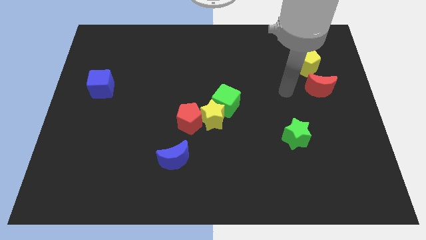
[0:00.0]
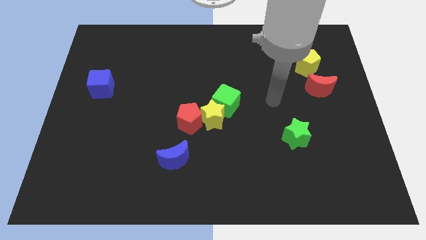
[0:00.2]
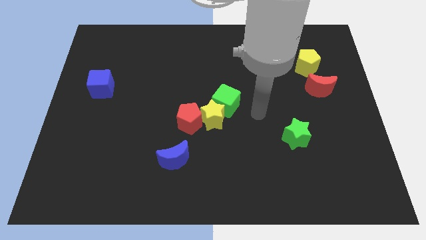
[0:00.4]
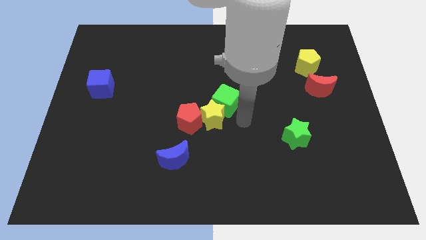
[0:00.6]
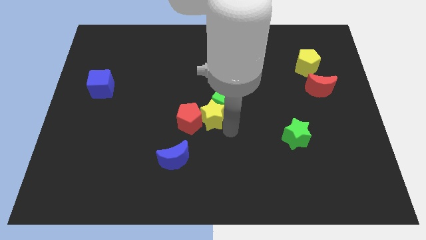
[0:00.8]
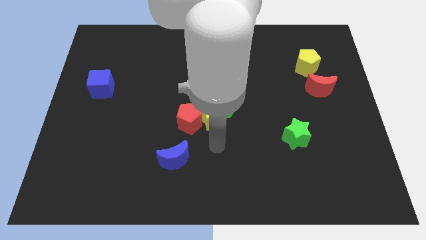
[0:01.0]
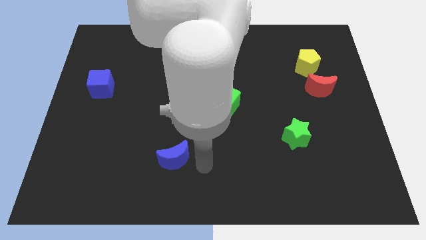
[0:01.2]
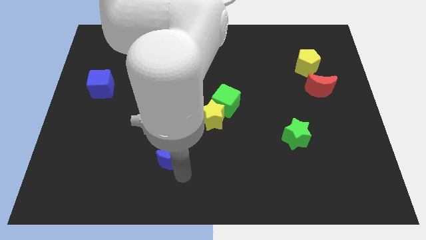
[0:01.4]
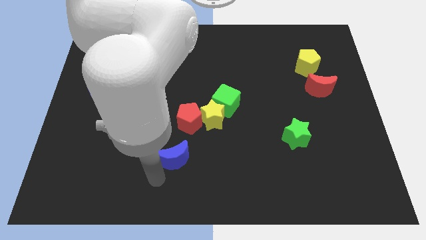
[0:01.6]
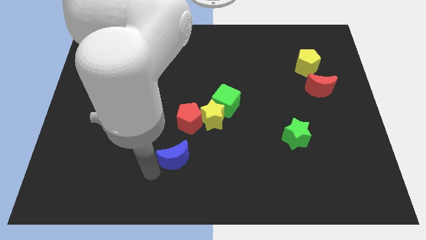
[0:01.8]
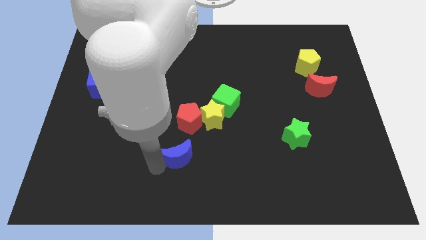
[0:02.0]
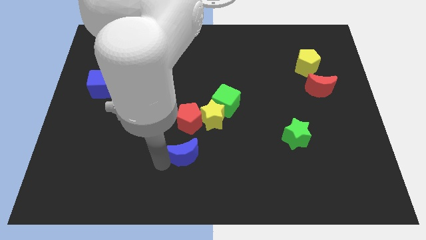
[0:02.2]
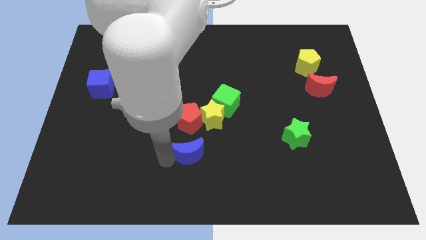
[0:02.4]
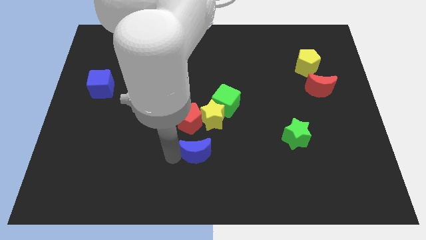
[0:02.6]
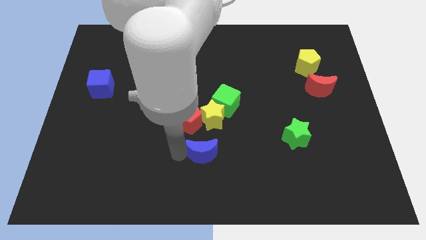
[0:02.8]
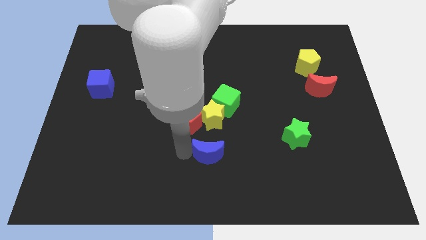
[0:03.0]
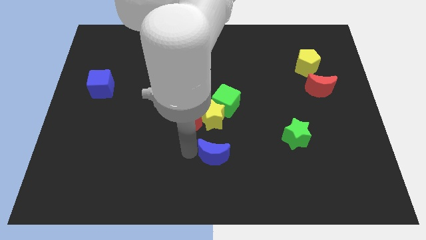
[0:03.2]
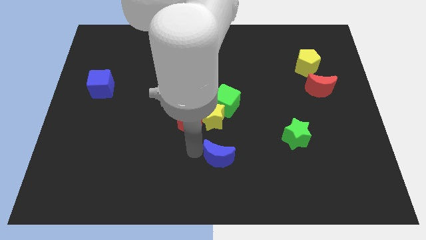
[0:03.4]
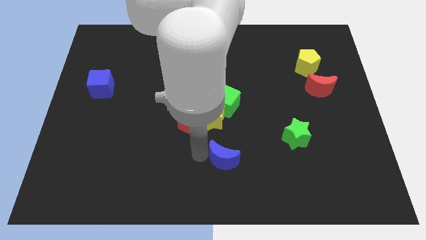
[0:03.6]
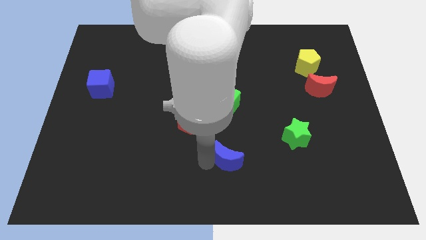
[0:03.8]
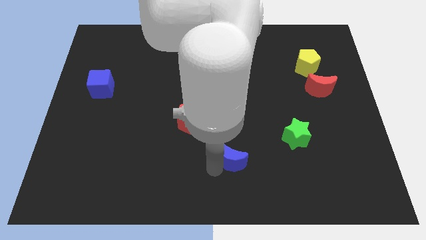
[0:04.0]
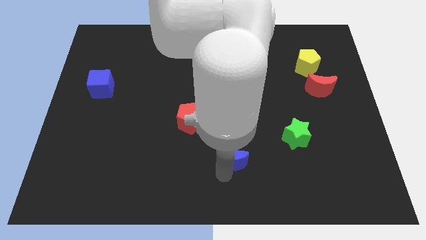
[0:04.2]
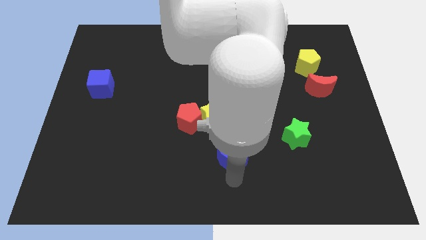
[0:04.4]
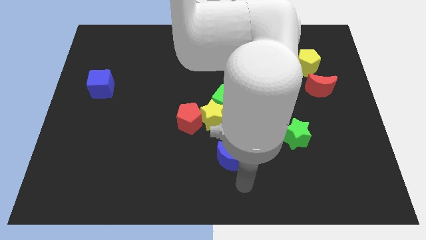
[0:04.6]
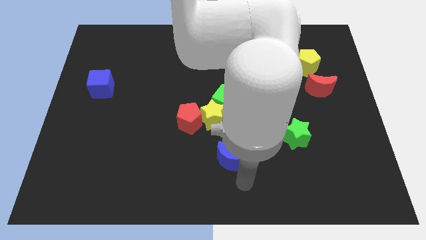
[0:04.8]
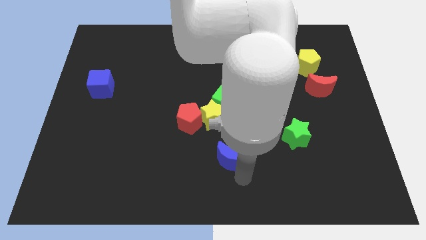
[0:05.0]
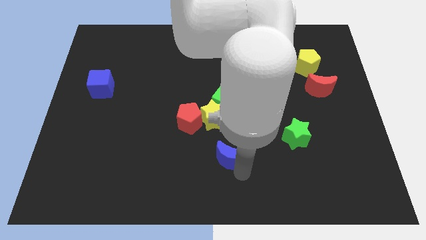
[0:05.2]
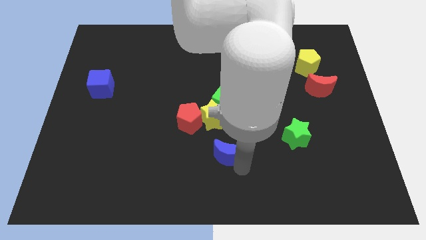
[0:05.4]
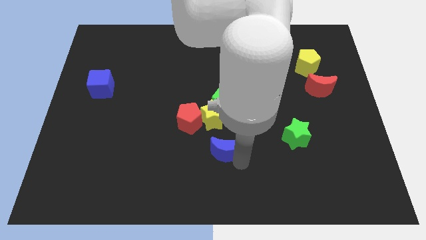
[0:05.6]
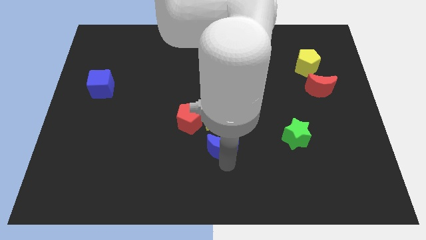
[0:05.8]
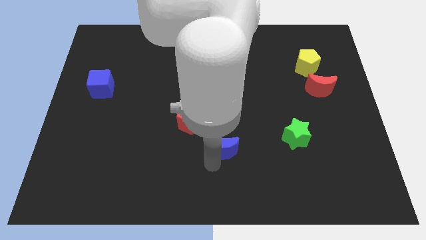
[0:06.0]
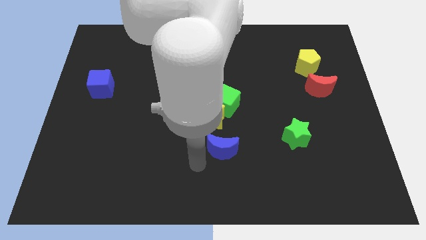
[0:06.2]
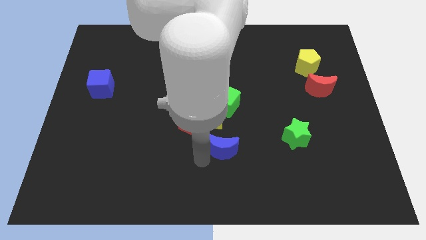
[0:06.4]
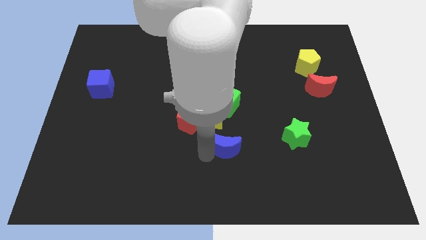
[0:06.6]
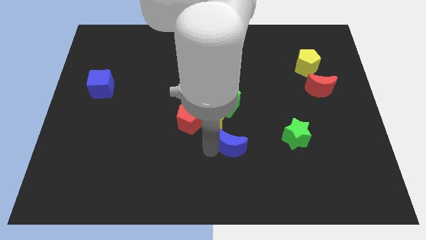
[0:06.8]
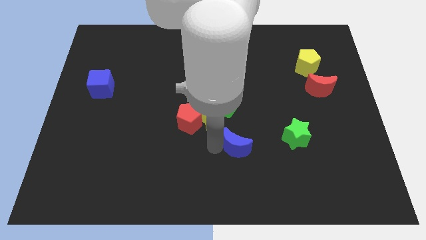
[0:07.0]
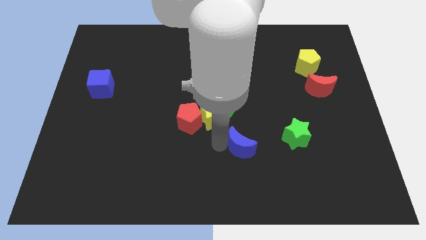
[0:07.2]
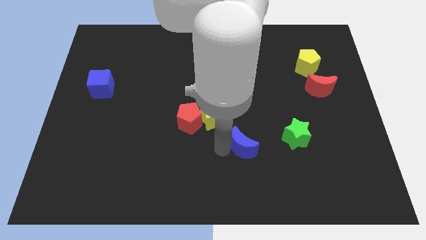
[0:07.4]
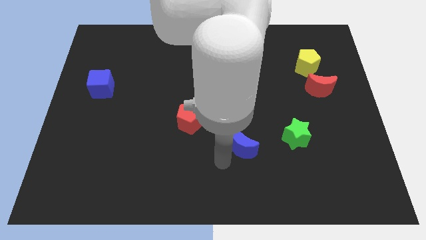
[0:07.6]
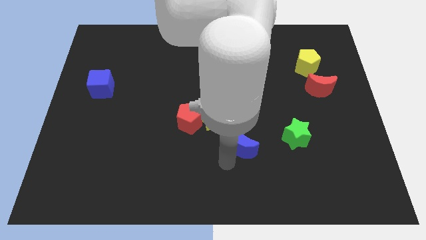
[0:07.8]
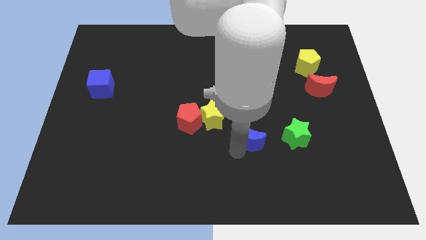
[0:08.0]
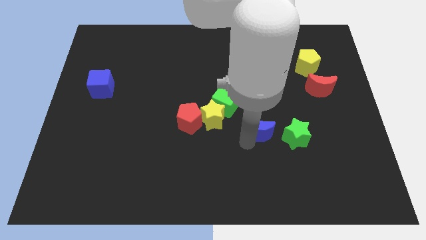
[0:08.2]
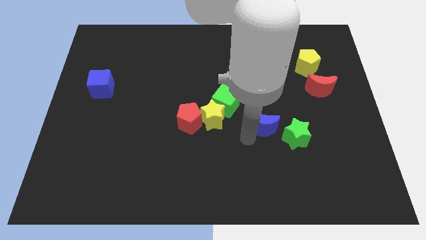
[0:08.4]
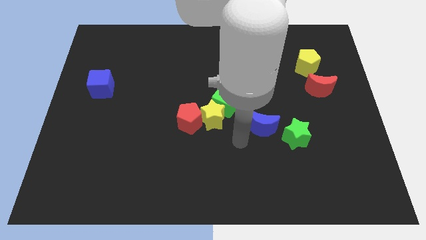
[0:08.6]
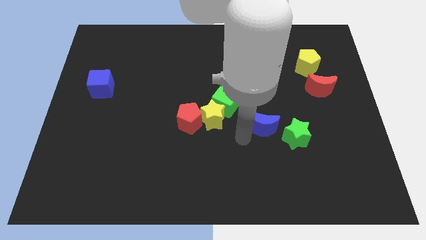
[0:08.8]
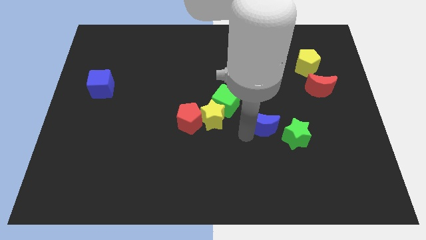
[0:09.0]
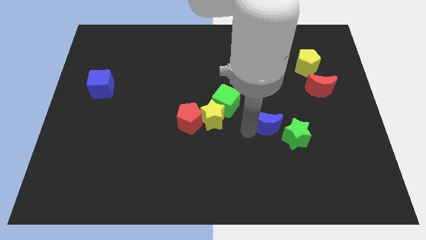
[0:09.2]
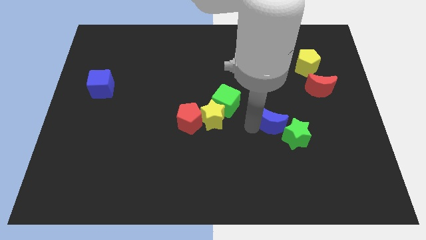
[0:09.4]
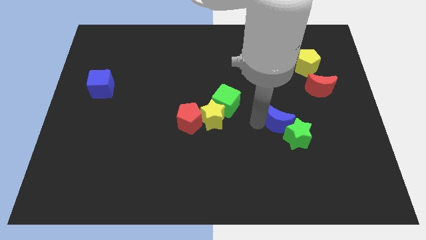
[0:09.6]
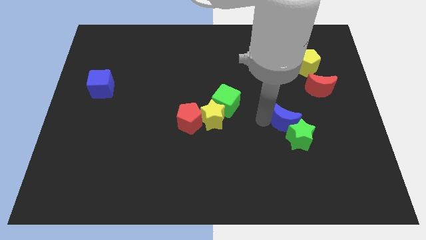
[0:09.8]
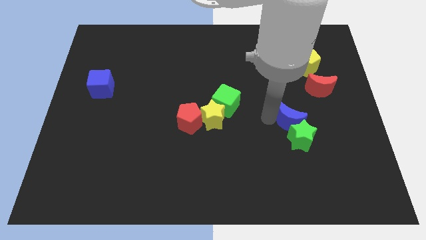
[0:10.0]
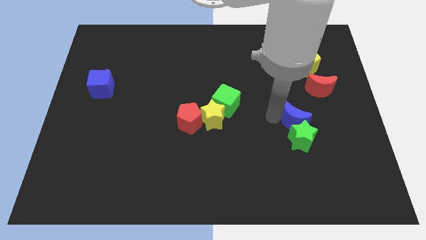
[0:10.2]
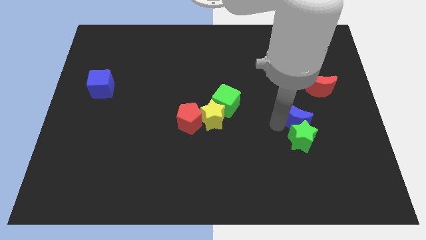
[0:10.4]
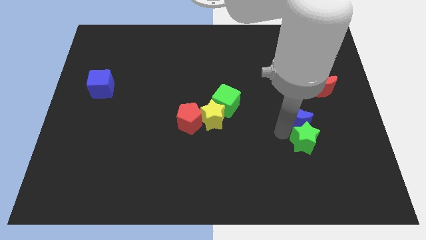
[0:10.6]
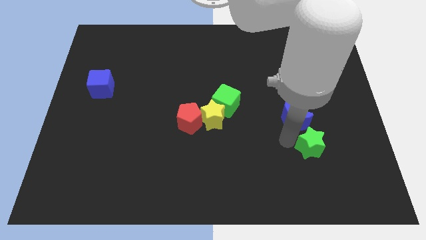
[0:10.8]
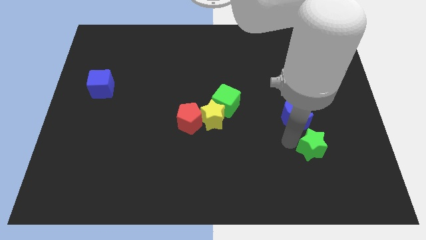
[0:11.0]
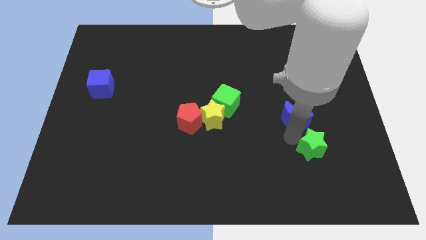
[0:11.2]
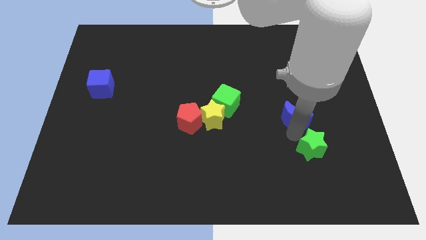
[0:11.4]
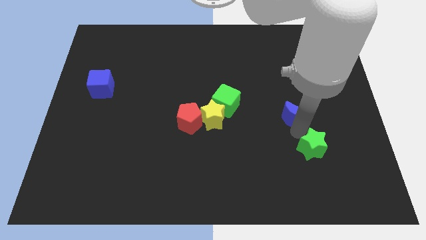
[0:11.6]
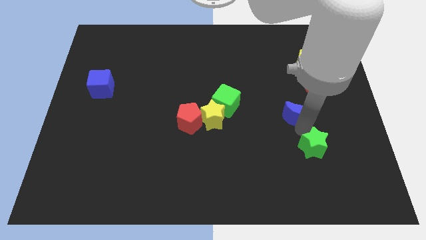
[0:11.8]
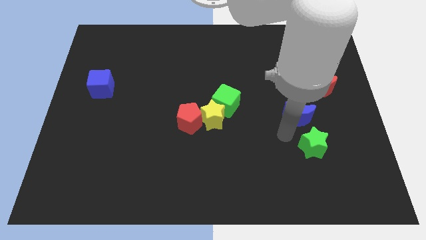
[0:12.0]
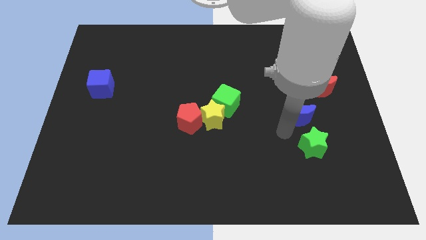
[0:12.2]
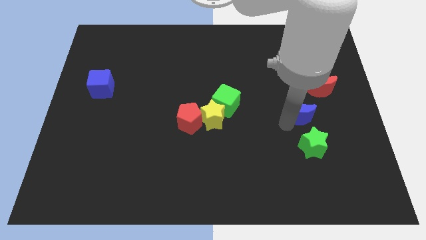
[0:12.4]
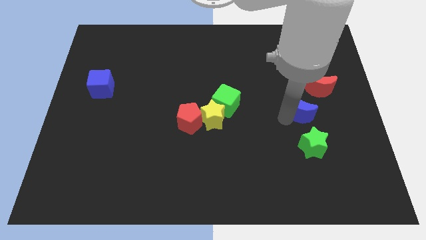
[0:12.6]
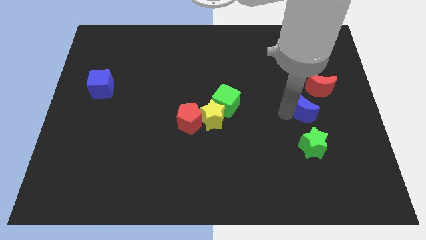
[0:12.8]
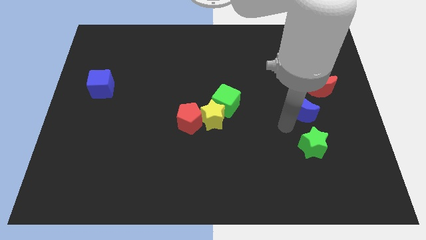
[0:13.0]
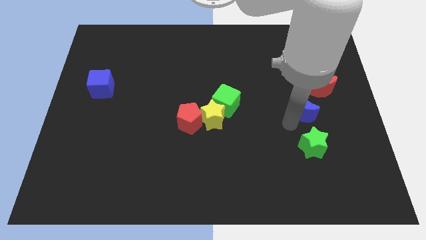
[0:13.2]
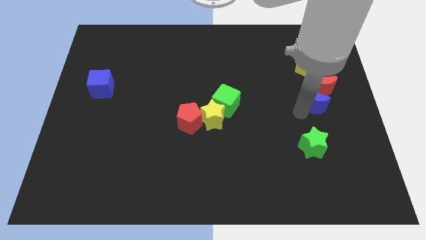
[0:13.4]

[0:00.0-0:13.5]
put the blue moon towards the red moon
